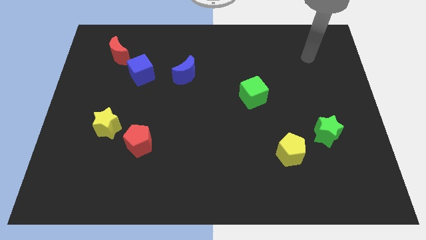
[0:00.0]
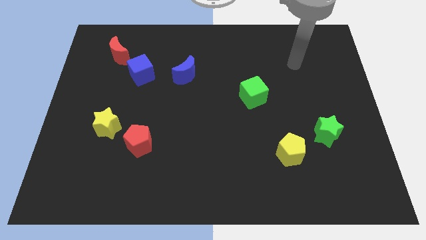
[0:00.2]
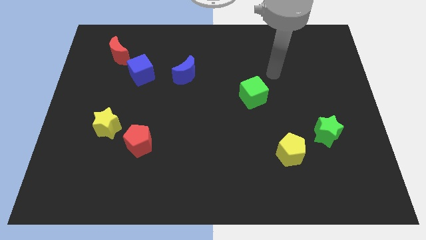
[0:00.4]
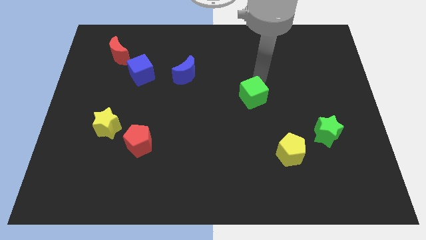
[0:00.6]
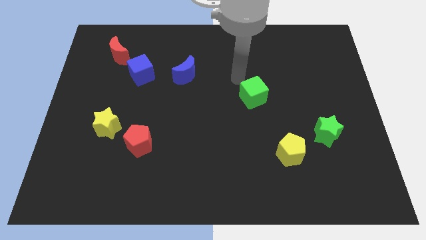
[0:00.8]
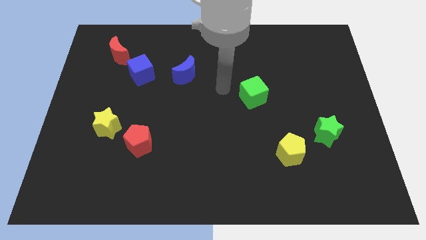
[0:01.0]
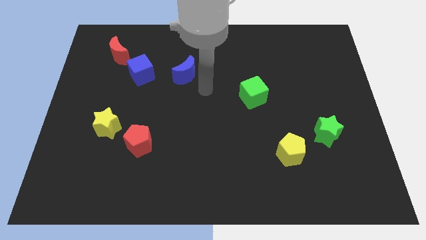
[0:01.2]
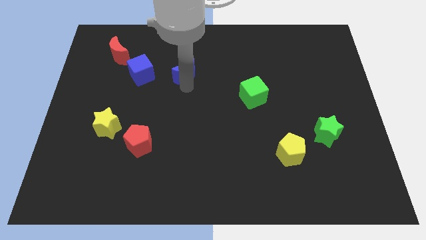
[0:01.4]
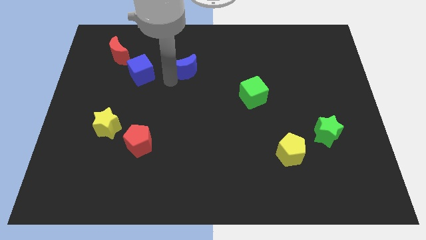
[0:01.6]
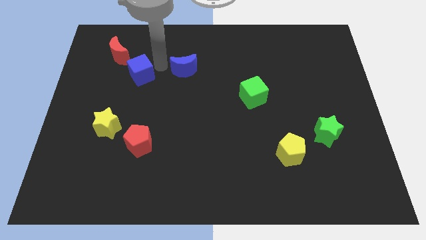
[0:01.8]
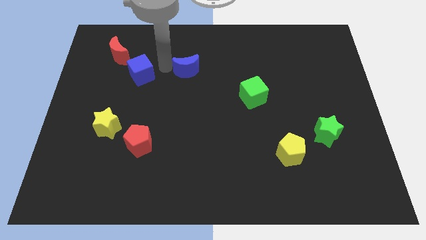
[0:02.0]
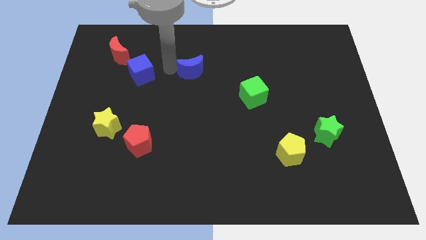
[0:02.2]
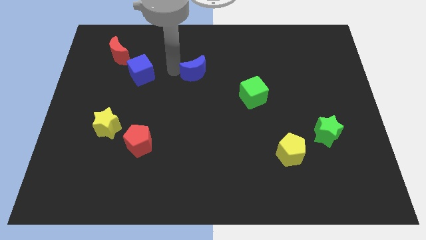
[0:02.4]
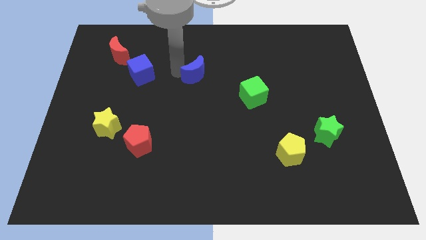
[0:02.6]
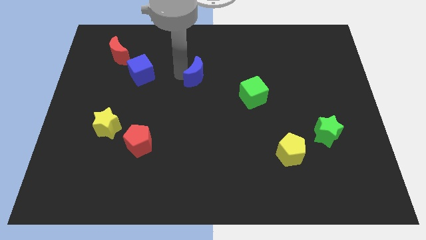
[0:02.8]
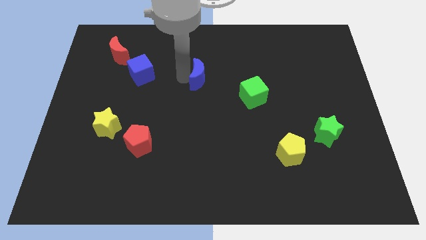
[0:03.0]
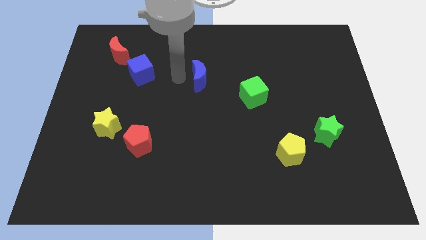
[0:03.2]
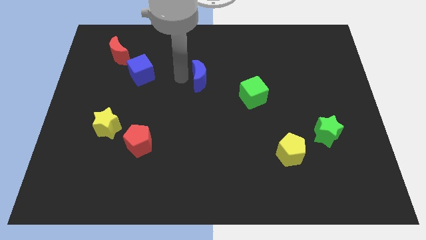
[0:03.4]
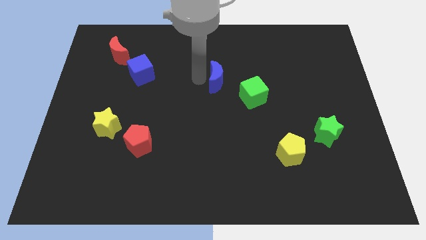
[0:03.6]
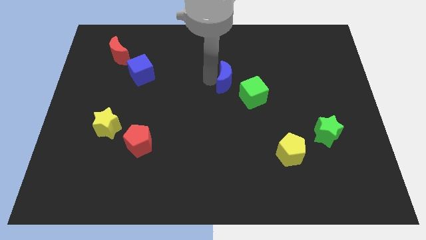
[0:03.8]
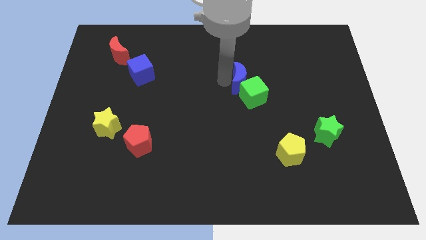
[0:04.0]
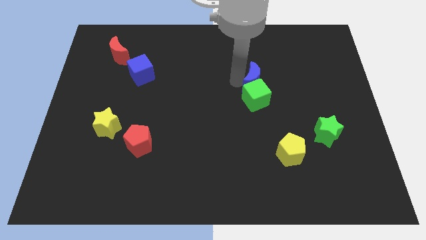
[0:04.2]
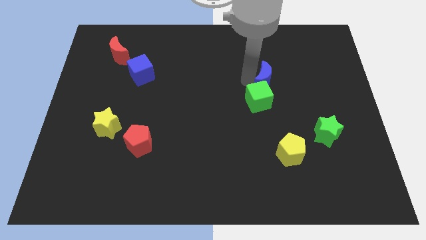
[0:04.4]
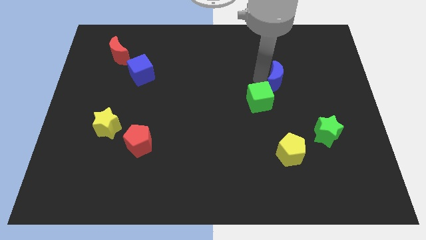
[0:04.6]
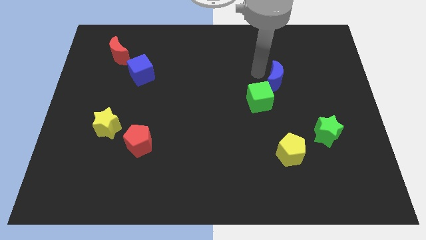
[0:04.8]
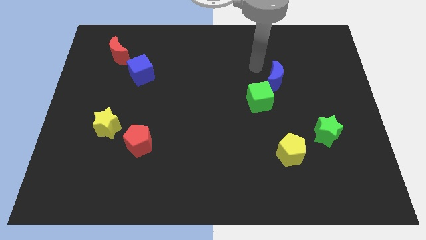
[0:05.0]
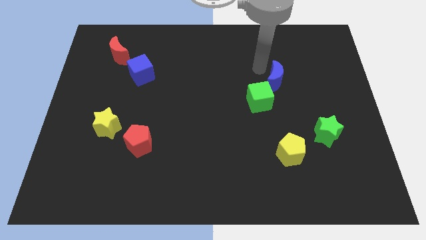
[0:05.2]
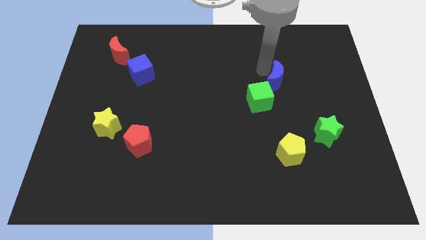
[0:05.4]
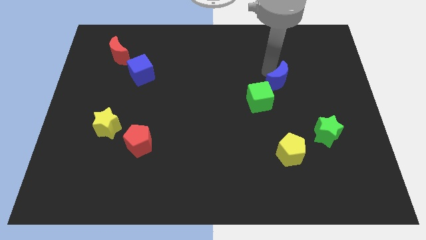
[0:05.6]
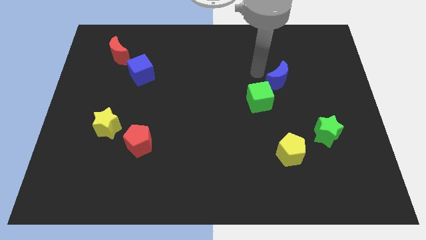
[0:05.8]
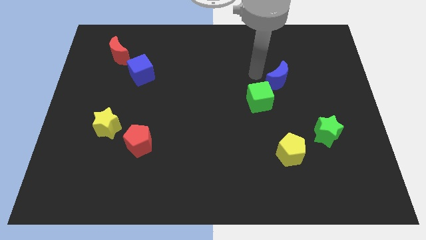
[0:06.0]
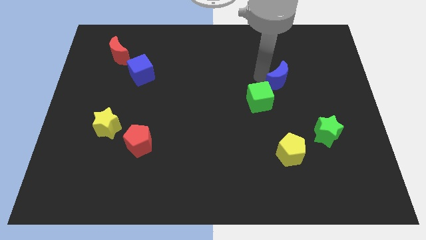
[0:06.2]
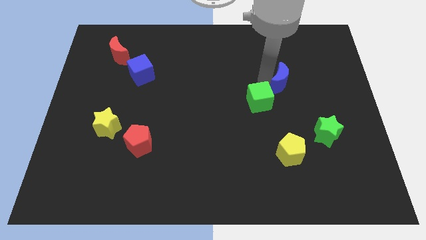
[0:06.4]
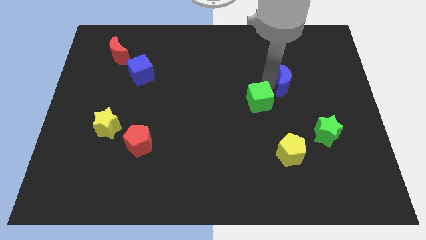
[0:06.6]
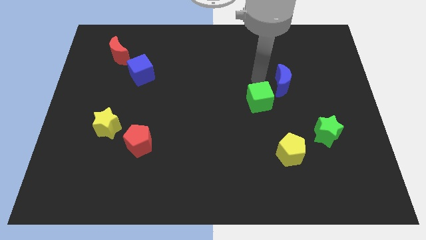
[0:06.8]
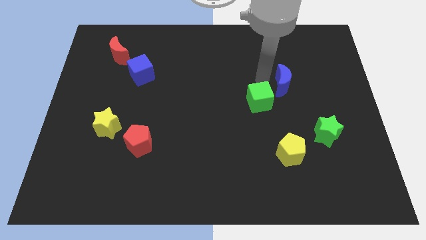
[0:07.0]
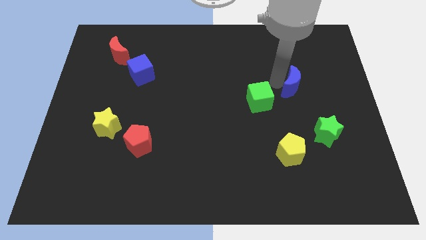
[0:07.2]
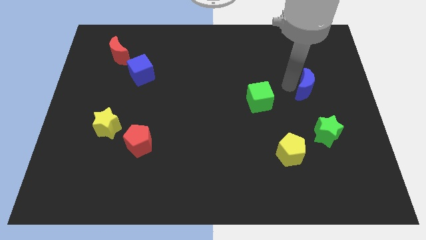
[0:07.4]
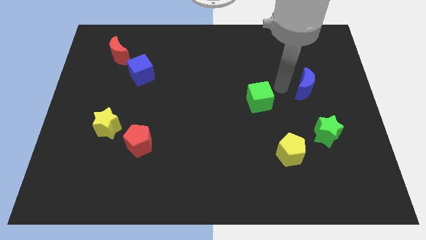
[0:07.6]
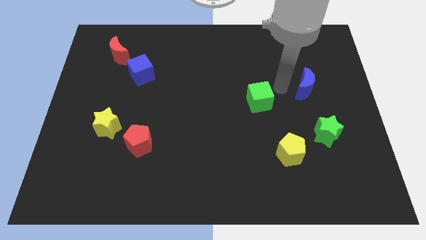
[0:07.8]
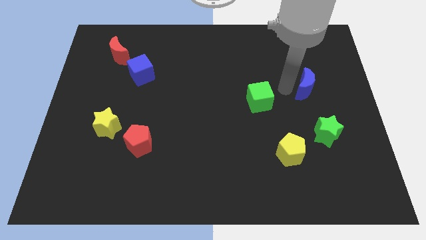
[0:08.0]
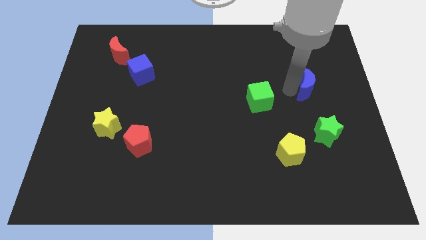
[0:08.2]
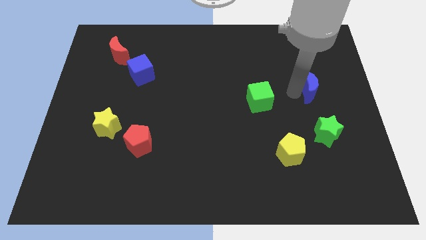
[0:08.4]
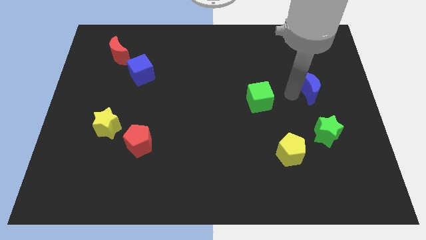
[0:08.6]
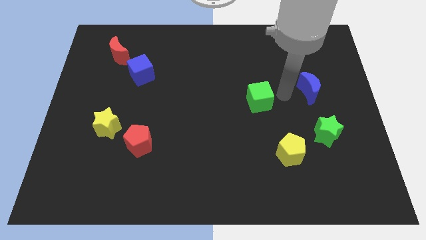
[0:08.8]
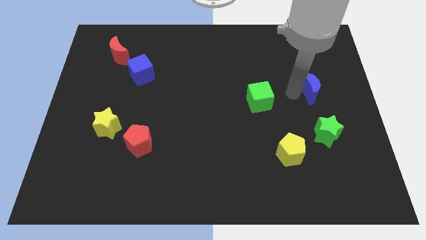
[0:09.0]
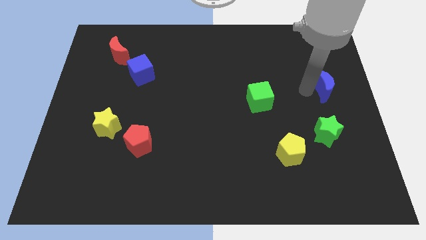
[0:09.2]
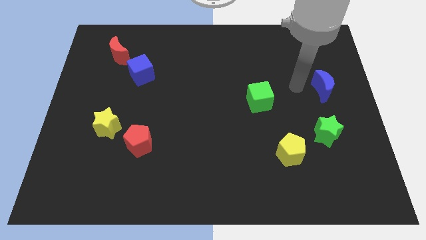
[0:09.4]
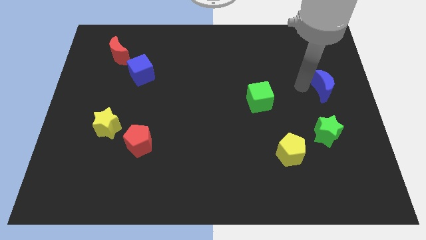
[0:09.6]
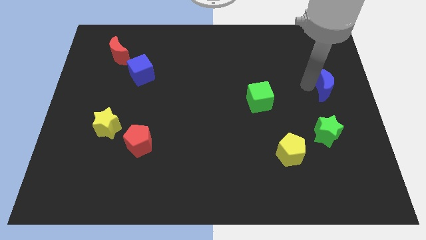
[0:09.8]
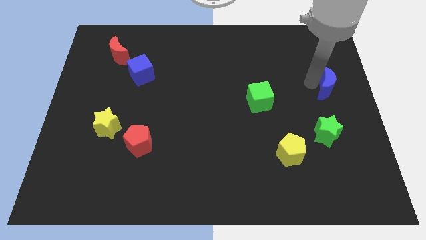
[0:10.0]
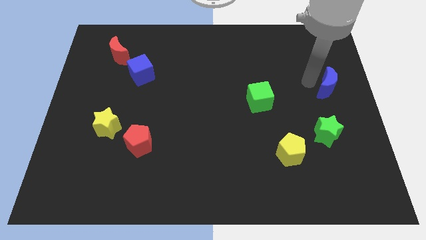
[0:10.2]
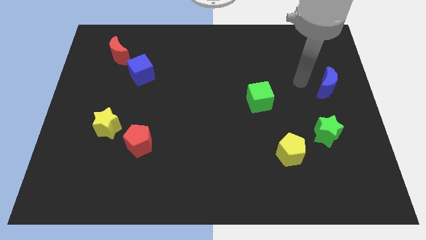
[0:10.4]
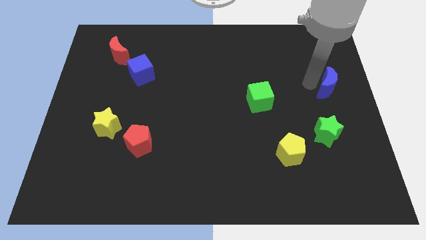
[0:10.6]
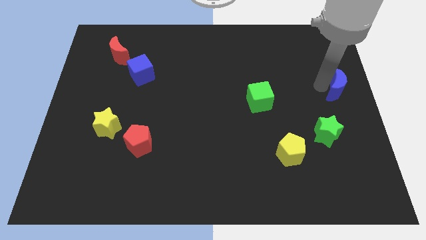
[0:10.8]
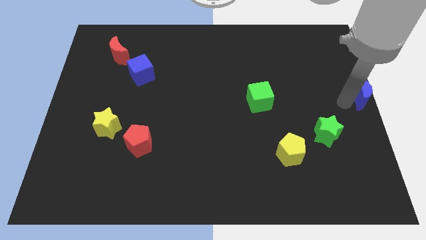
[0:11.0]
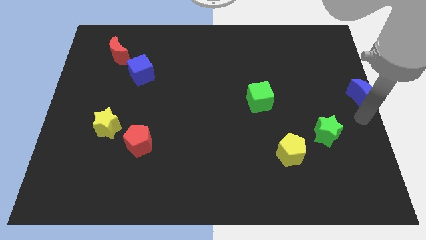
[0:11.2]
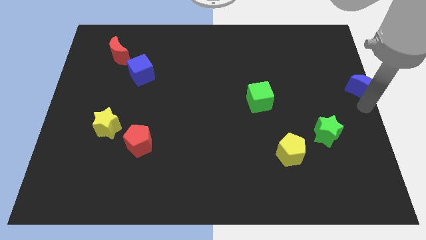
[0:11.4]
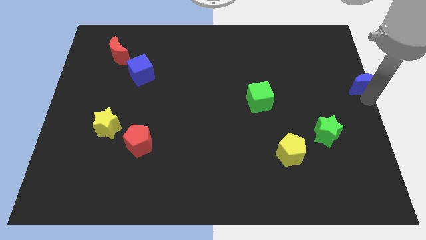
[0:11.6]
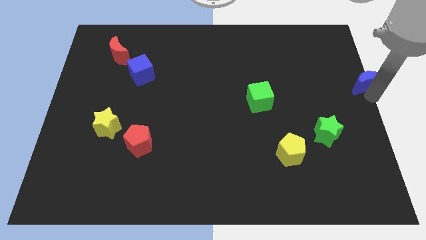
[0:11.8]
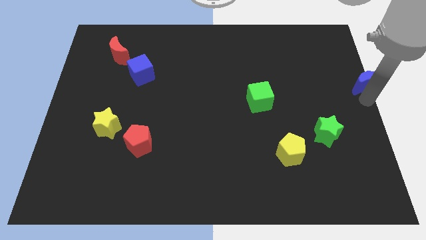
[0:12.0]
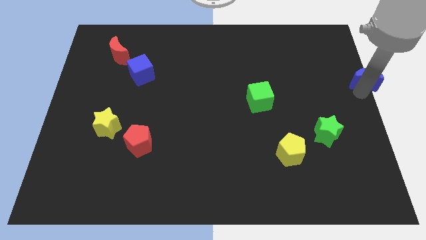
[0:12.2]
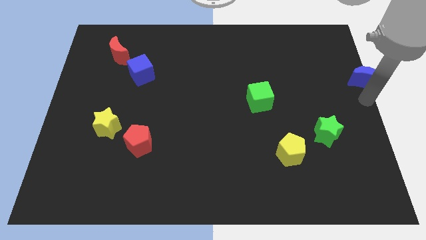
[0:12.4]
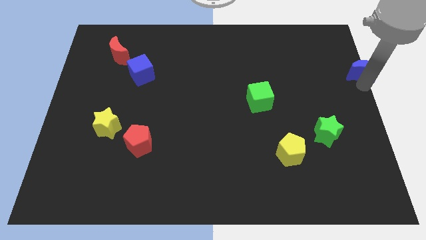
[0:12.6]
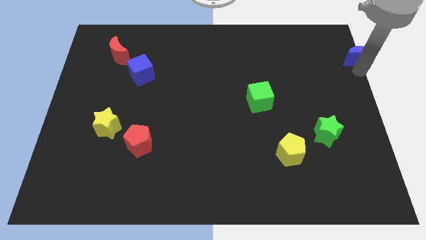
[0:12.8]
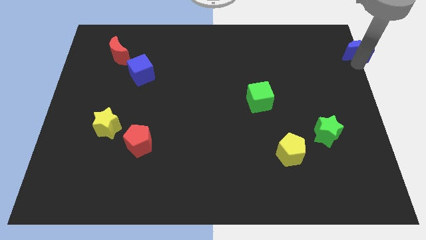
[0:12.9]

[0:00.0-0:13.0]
move the blue moon to the top right of the board
